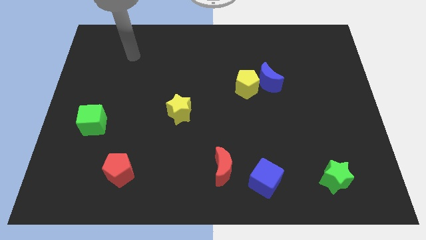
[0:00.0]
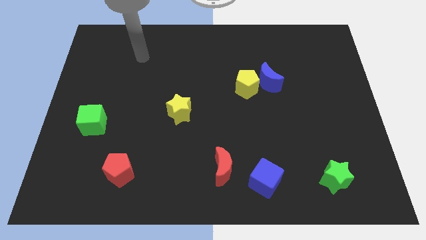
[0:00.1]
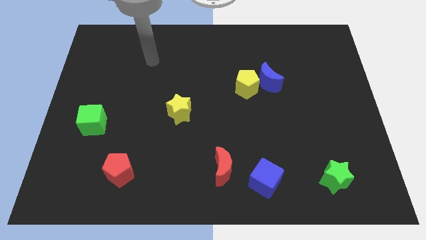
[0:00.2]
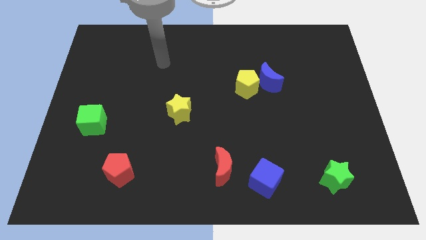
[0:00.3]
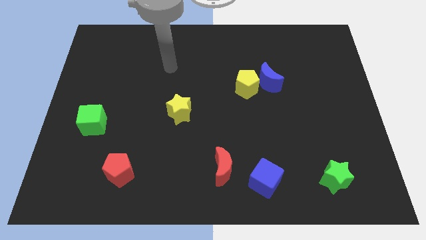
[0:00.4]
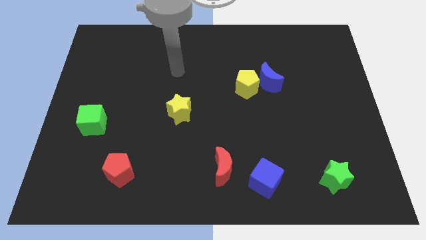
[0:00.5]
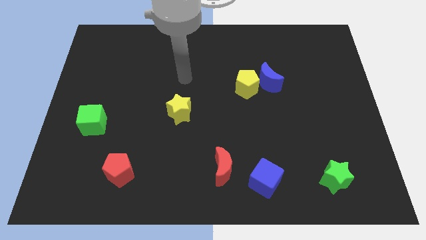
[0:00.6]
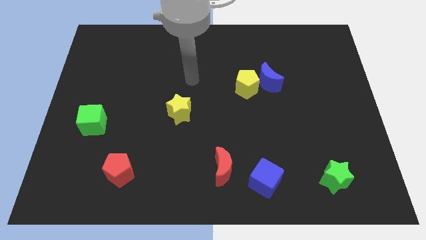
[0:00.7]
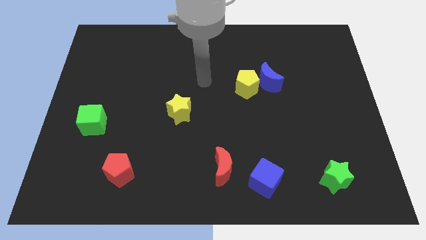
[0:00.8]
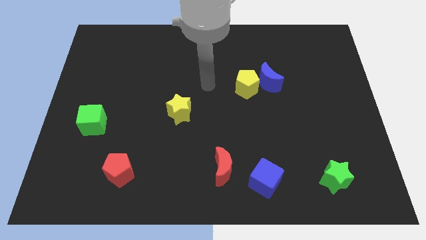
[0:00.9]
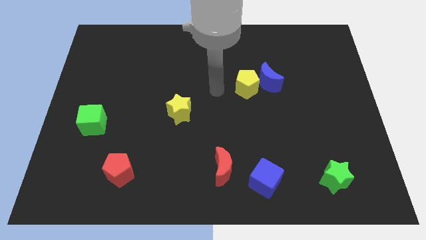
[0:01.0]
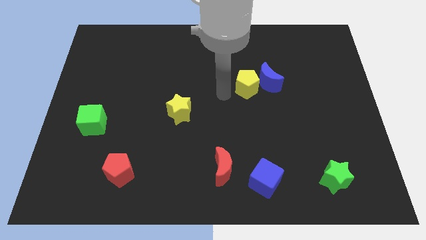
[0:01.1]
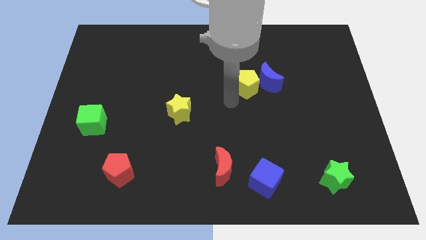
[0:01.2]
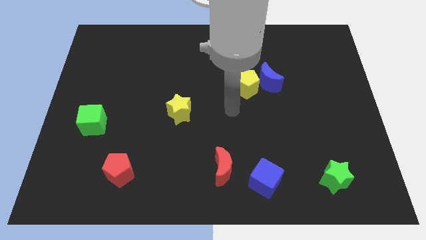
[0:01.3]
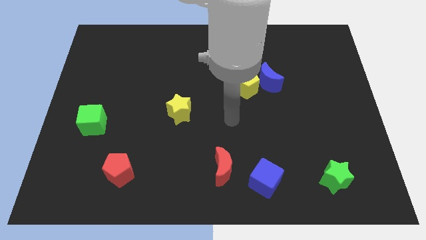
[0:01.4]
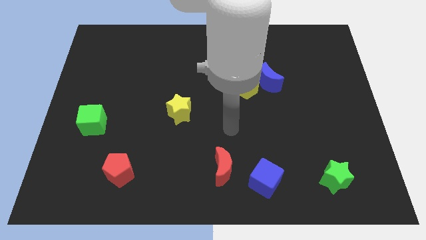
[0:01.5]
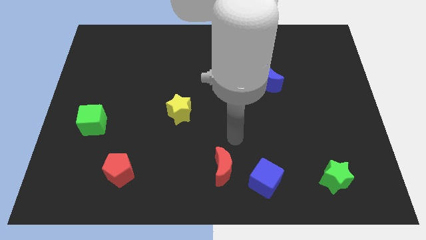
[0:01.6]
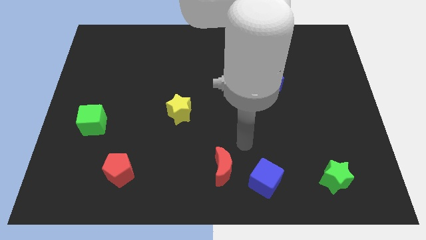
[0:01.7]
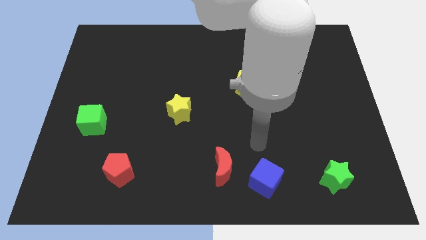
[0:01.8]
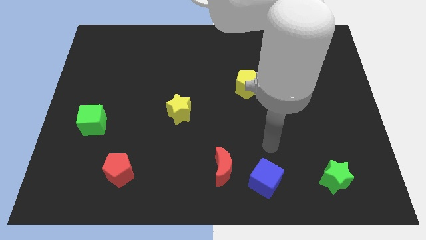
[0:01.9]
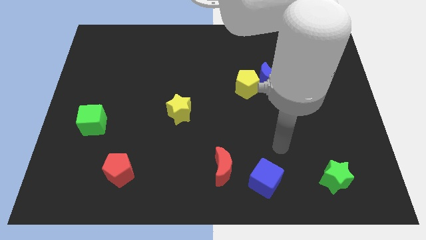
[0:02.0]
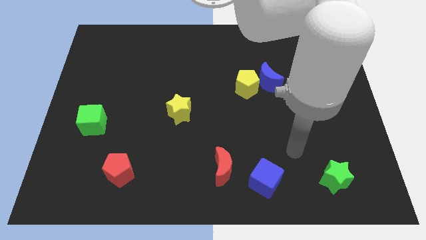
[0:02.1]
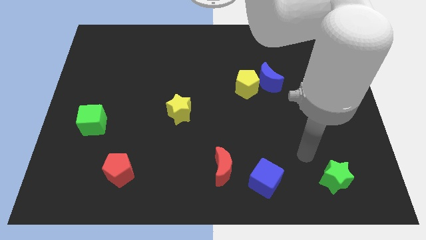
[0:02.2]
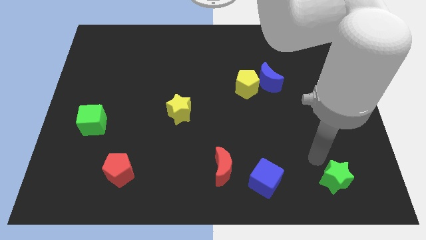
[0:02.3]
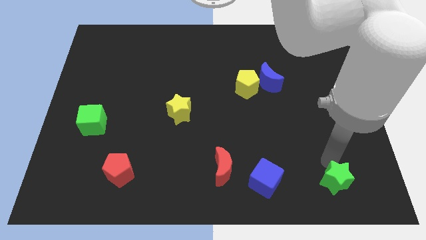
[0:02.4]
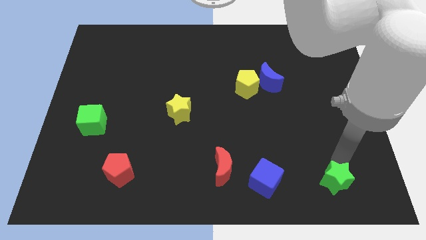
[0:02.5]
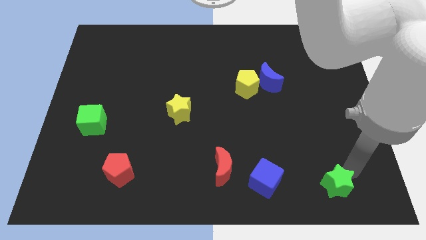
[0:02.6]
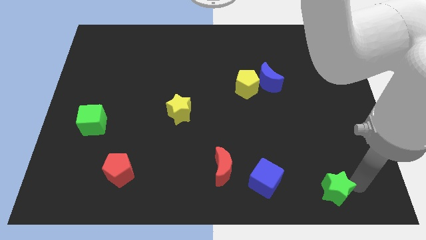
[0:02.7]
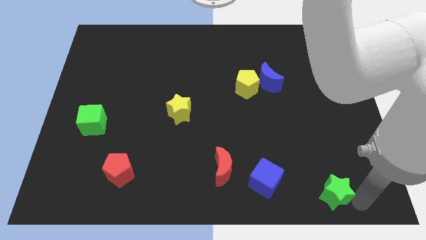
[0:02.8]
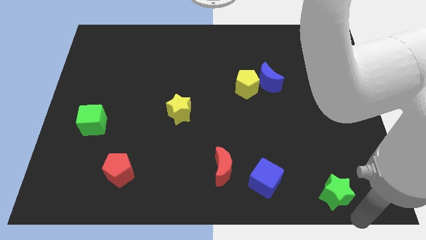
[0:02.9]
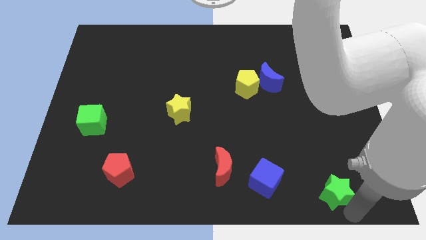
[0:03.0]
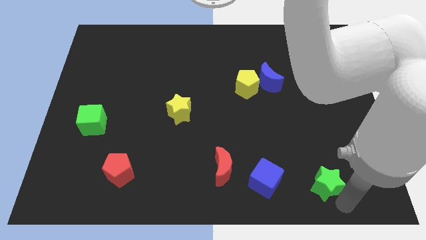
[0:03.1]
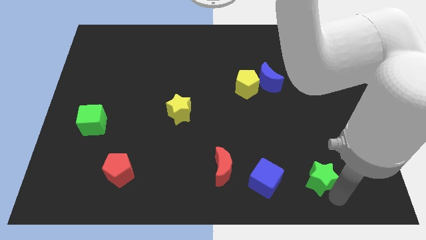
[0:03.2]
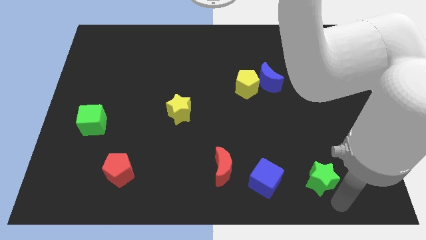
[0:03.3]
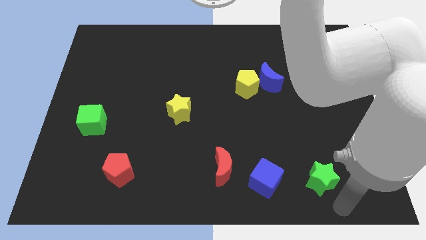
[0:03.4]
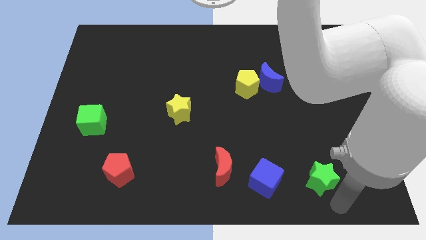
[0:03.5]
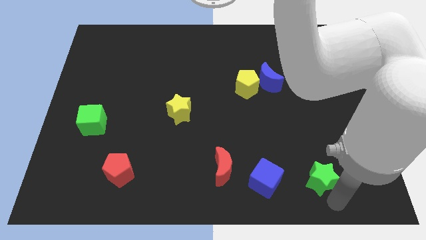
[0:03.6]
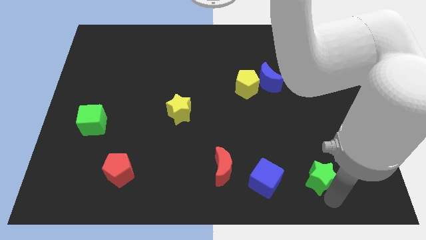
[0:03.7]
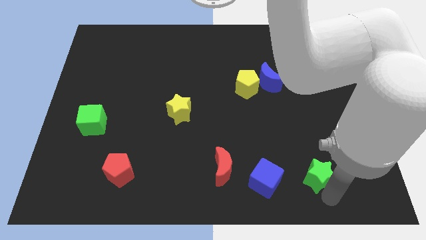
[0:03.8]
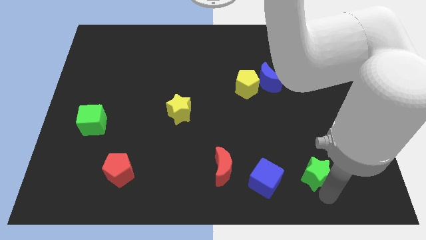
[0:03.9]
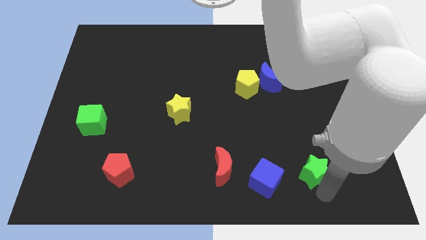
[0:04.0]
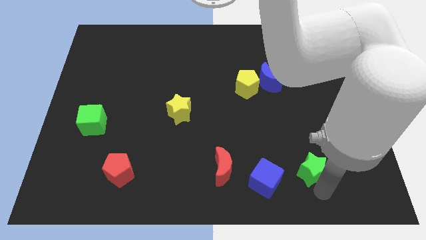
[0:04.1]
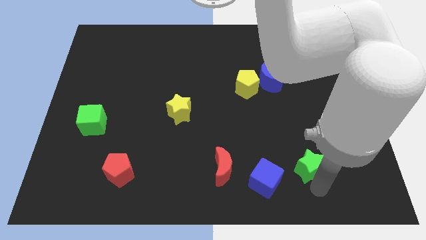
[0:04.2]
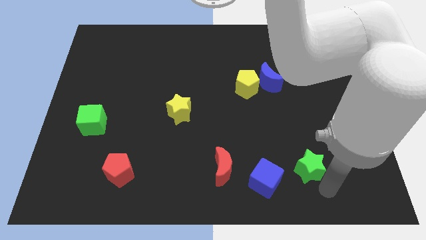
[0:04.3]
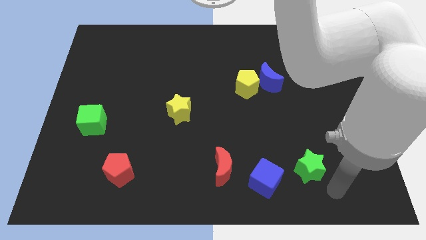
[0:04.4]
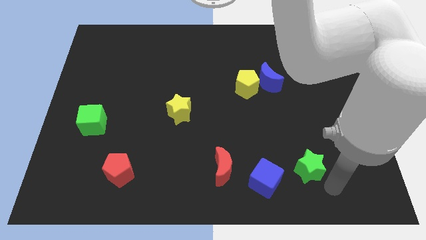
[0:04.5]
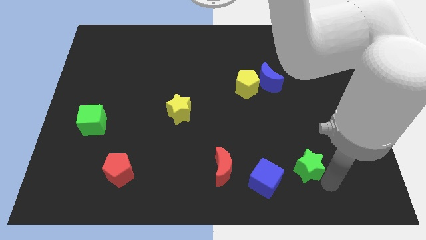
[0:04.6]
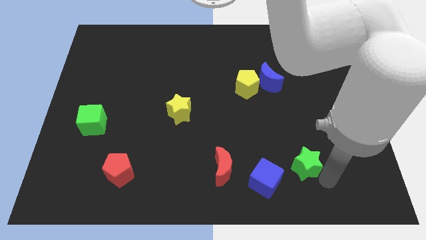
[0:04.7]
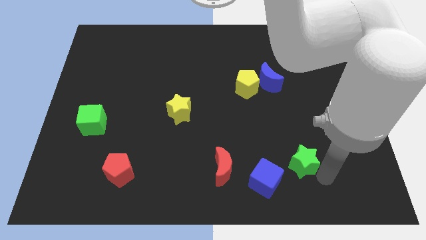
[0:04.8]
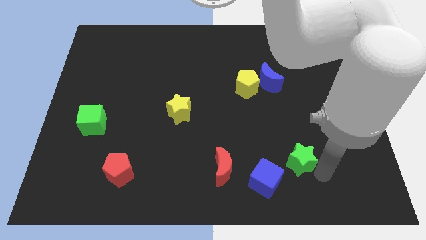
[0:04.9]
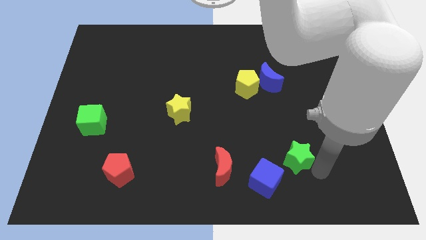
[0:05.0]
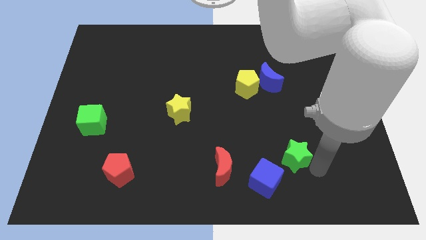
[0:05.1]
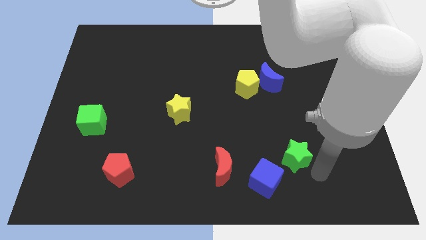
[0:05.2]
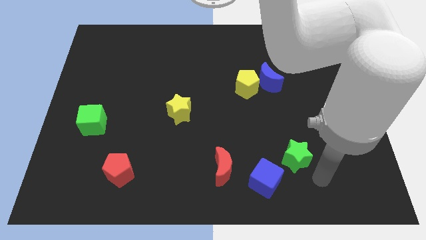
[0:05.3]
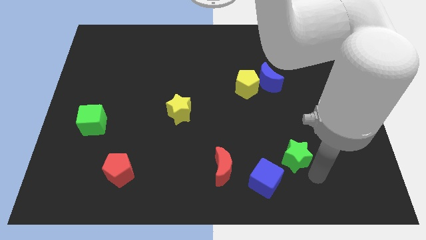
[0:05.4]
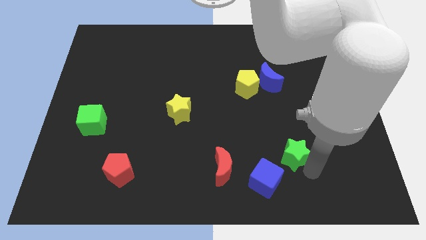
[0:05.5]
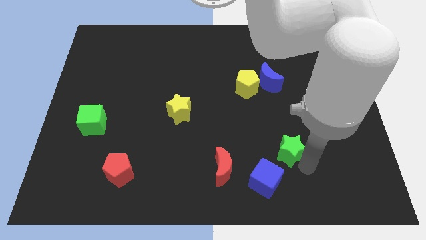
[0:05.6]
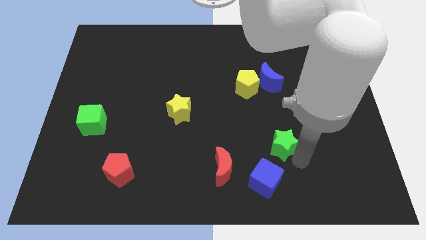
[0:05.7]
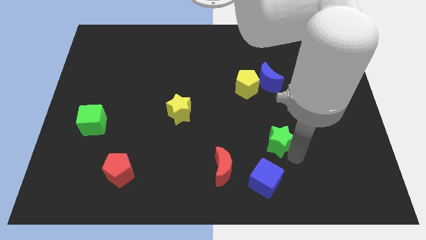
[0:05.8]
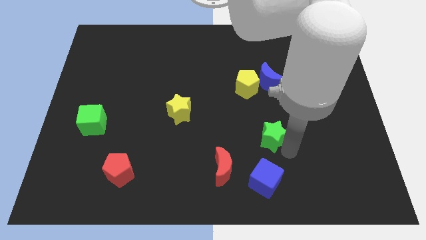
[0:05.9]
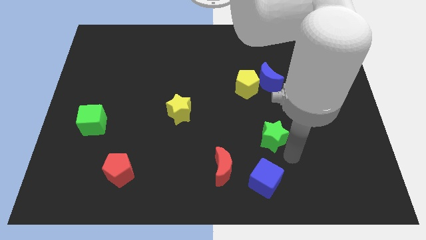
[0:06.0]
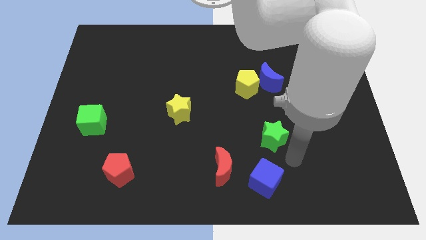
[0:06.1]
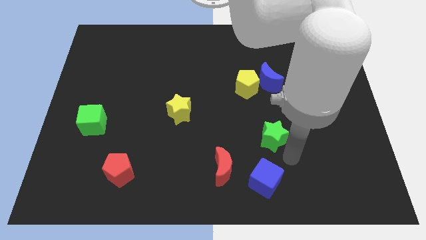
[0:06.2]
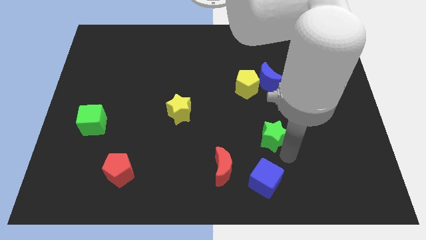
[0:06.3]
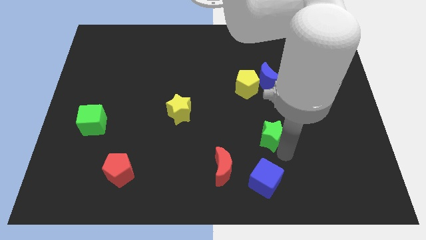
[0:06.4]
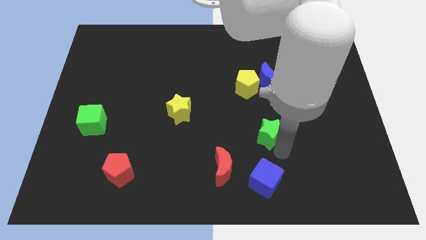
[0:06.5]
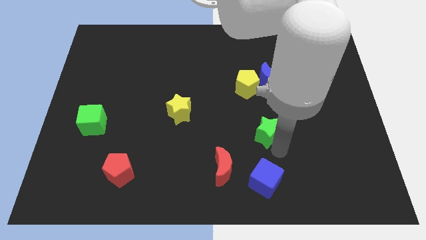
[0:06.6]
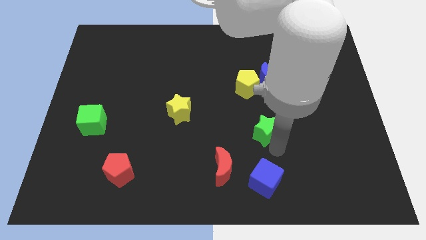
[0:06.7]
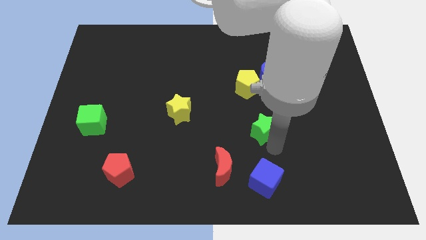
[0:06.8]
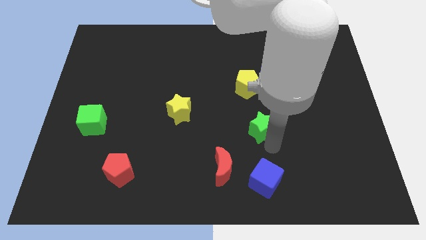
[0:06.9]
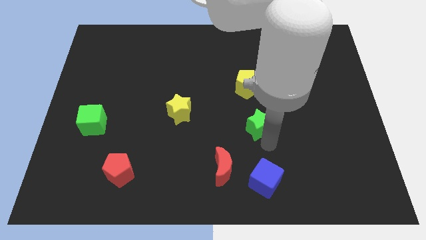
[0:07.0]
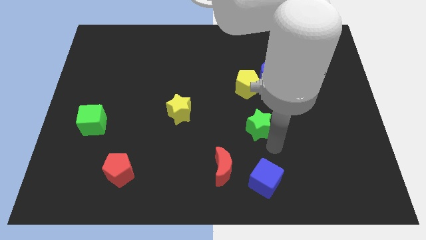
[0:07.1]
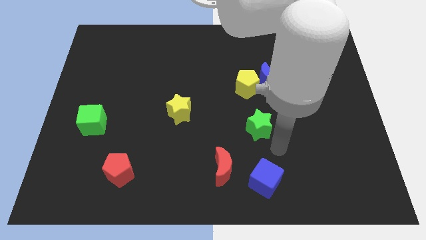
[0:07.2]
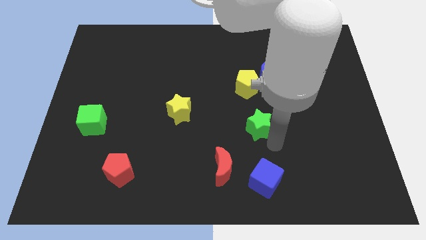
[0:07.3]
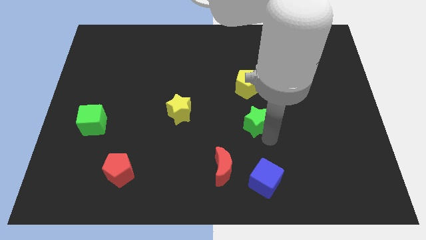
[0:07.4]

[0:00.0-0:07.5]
move the green star diagonally upwards and left

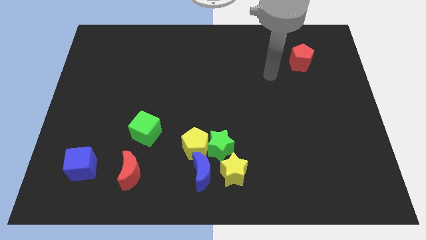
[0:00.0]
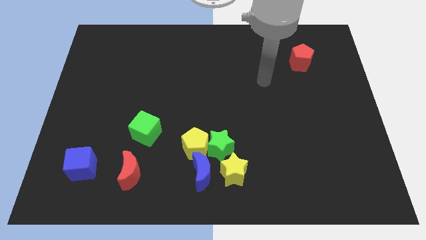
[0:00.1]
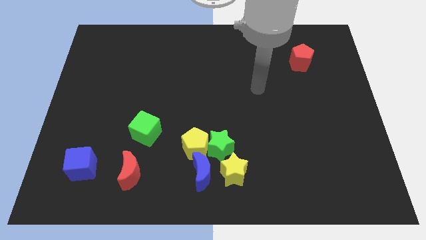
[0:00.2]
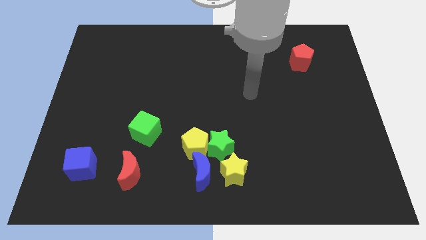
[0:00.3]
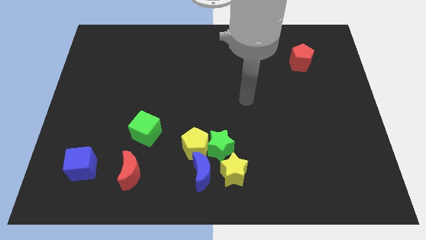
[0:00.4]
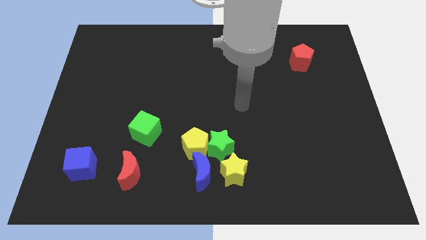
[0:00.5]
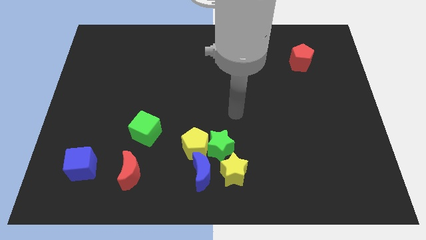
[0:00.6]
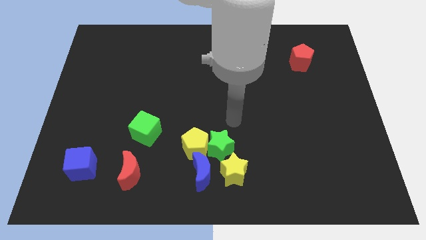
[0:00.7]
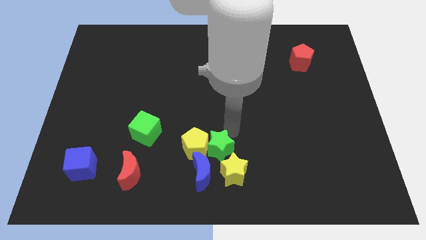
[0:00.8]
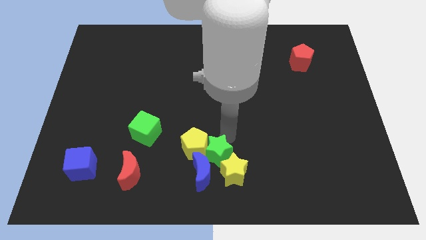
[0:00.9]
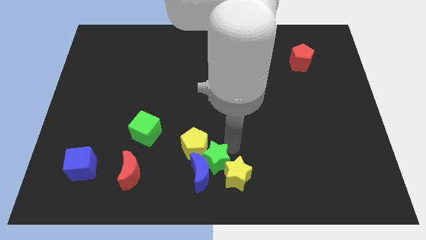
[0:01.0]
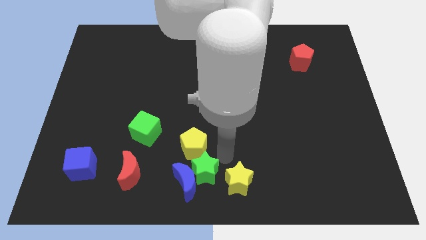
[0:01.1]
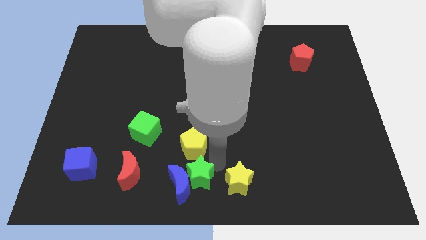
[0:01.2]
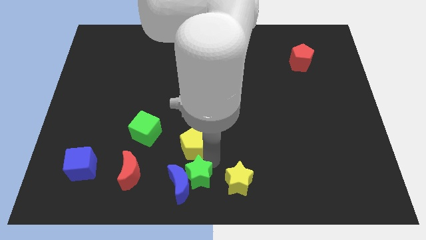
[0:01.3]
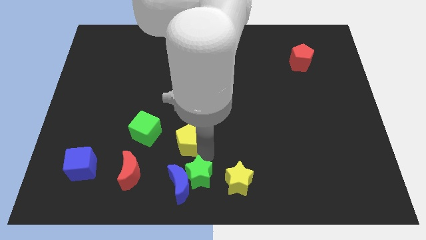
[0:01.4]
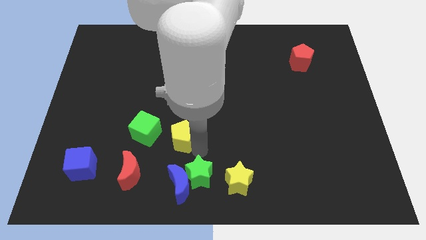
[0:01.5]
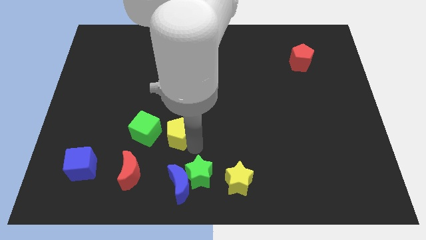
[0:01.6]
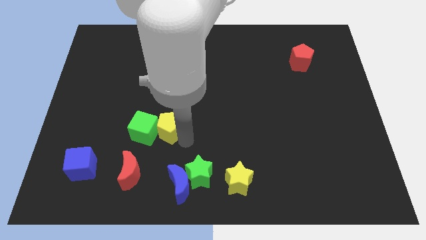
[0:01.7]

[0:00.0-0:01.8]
slightly slide the yellow pentagon up and to the left diagonally
